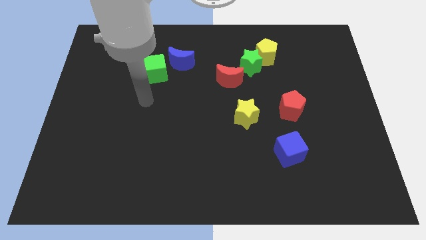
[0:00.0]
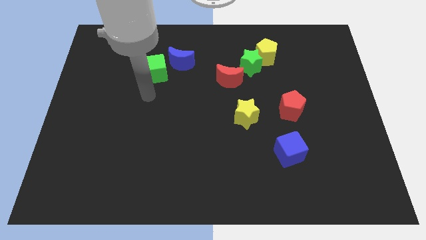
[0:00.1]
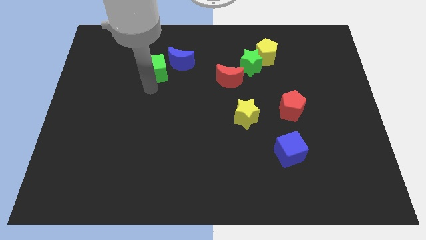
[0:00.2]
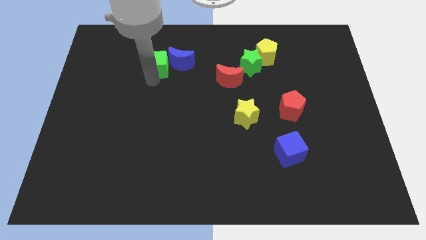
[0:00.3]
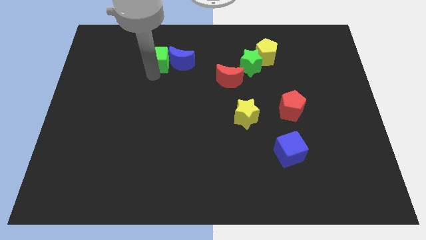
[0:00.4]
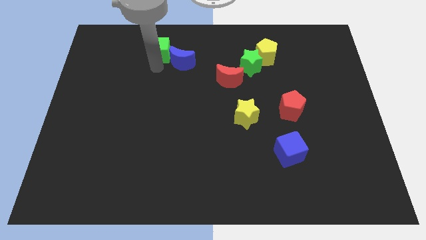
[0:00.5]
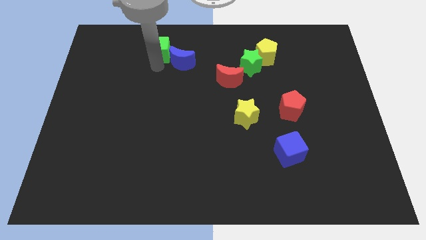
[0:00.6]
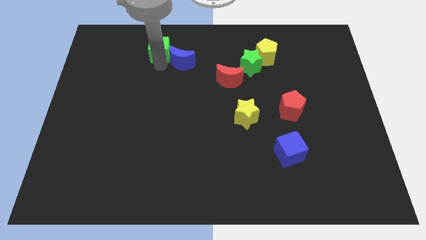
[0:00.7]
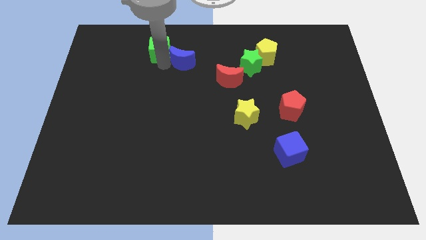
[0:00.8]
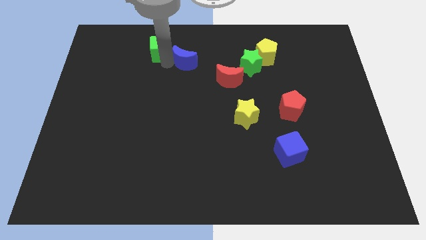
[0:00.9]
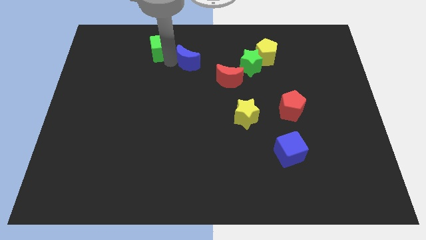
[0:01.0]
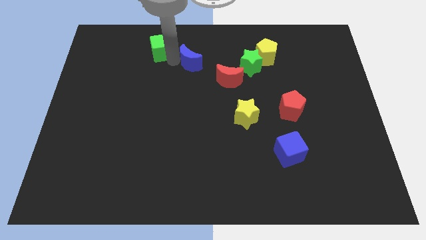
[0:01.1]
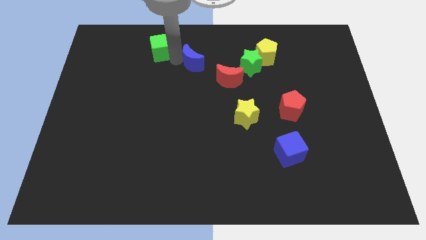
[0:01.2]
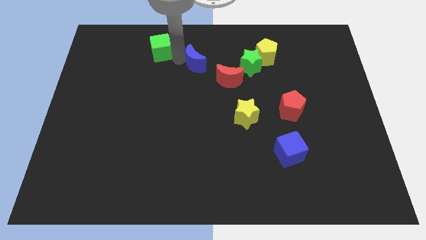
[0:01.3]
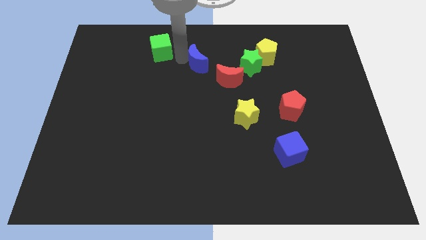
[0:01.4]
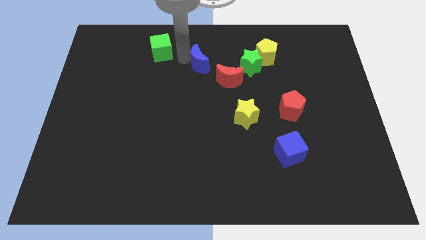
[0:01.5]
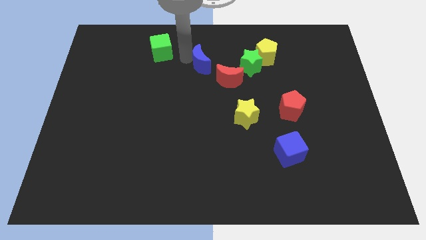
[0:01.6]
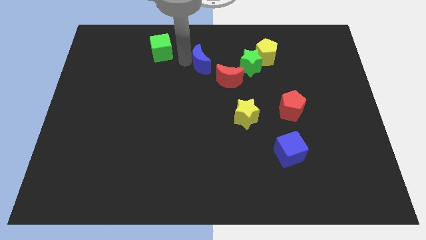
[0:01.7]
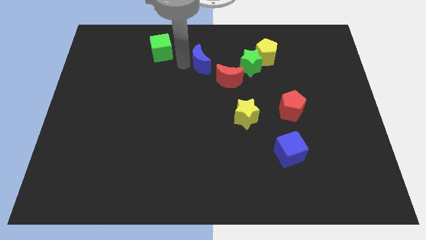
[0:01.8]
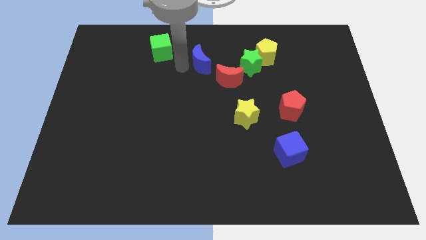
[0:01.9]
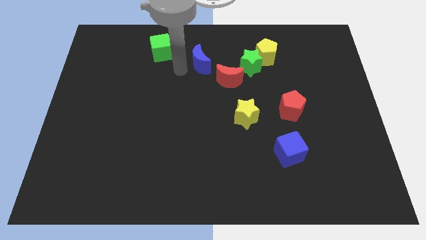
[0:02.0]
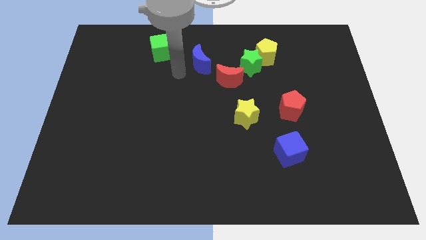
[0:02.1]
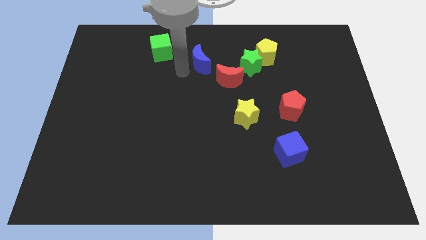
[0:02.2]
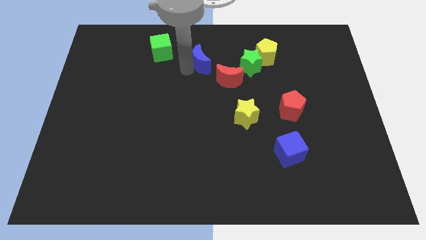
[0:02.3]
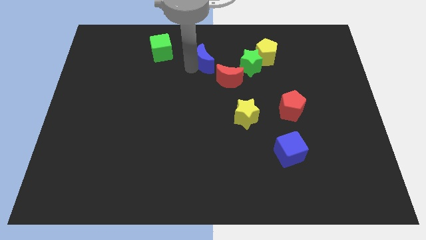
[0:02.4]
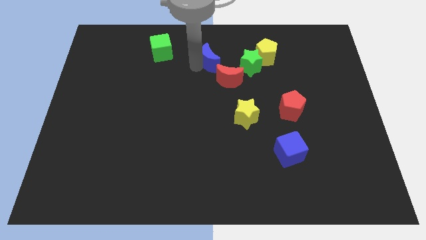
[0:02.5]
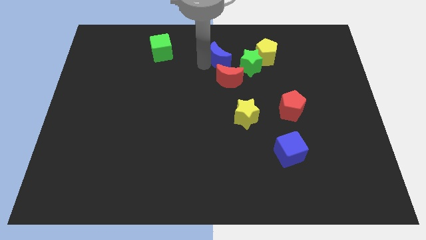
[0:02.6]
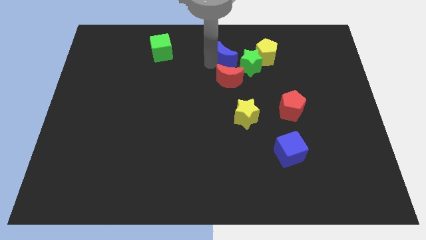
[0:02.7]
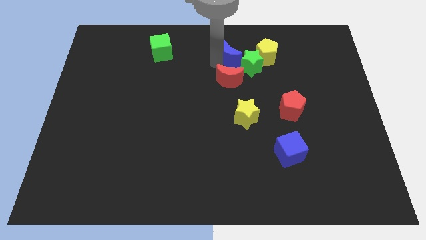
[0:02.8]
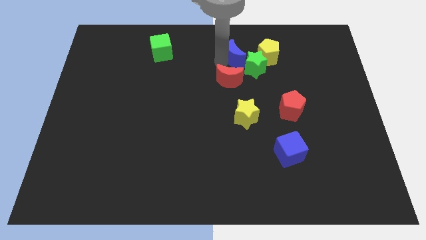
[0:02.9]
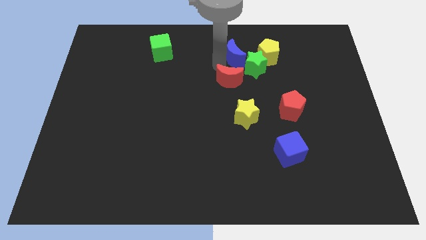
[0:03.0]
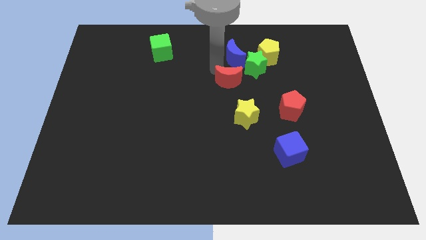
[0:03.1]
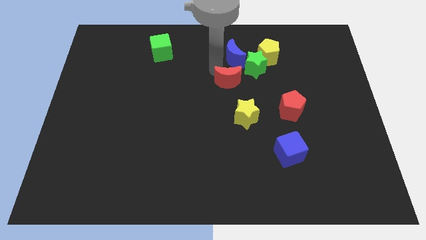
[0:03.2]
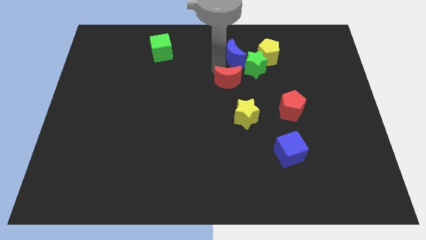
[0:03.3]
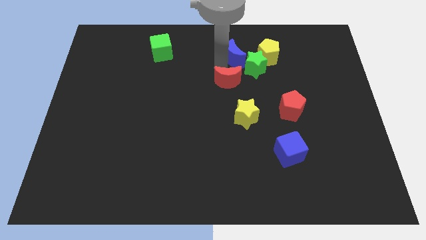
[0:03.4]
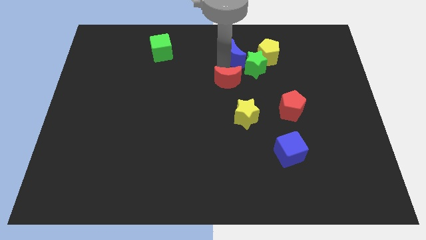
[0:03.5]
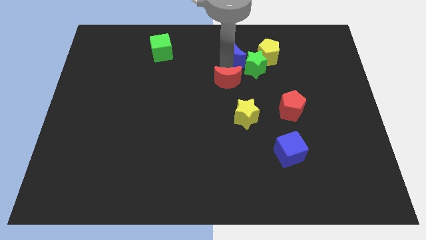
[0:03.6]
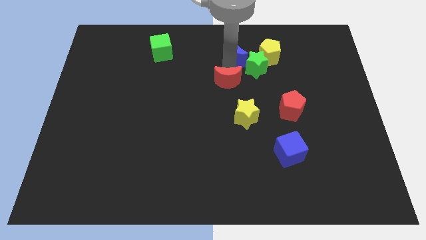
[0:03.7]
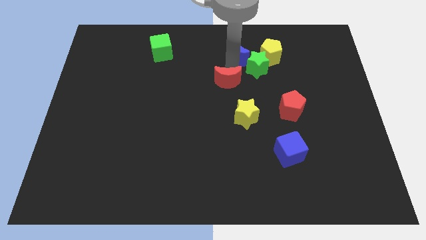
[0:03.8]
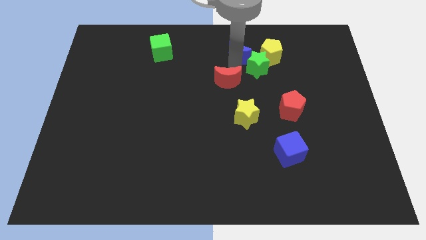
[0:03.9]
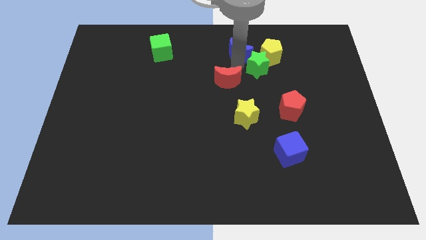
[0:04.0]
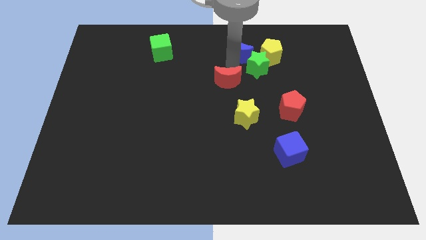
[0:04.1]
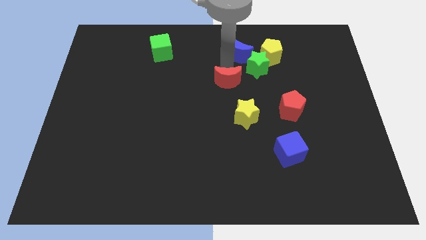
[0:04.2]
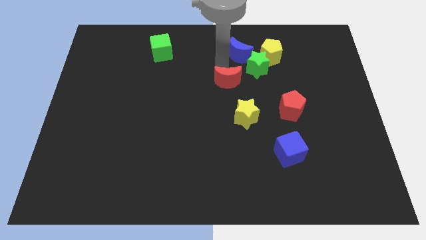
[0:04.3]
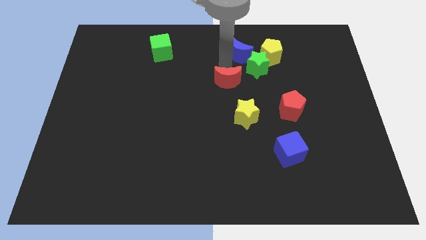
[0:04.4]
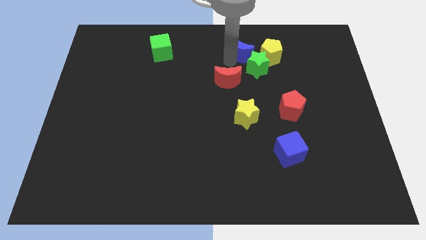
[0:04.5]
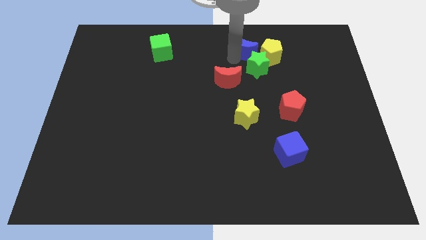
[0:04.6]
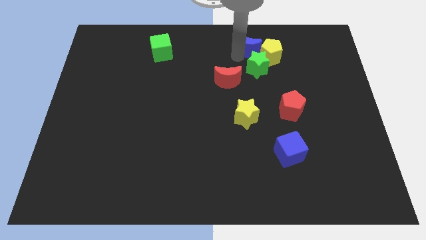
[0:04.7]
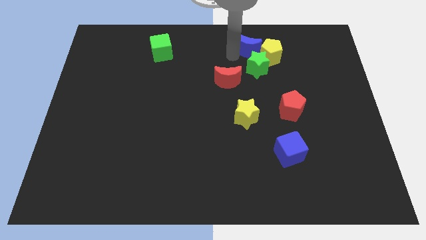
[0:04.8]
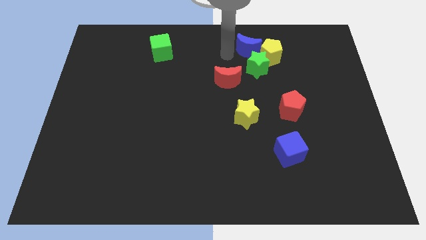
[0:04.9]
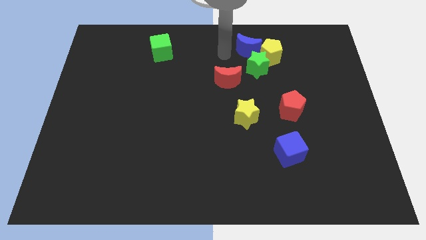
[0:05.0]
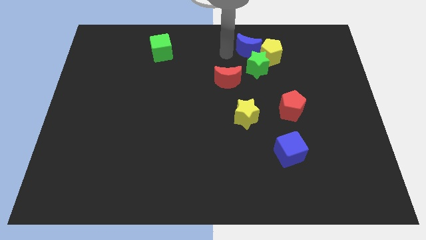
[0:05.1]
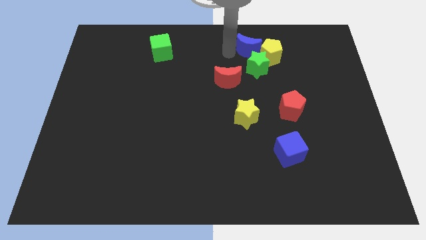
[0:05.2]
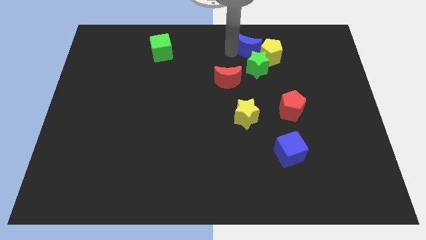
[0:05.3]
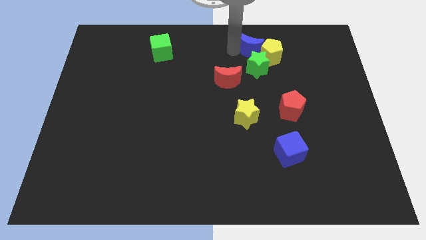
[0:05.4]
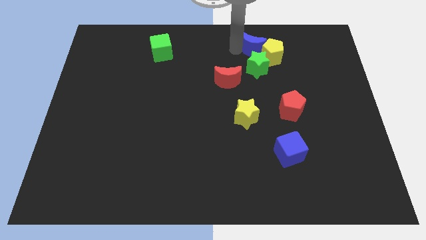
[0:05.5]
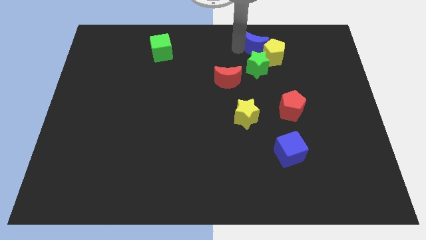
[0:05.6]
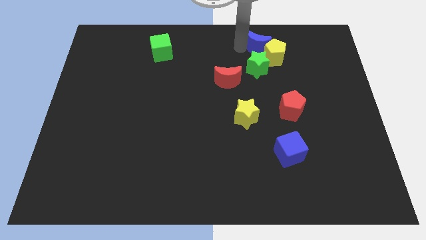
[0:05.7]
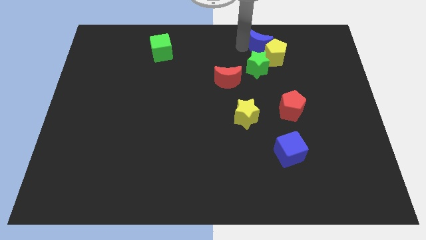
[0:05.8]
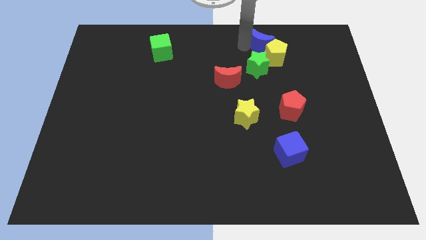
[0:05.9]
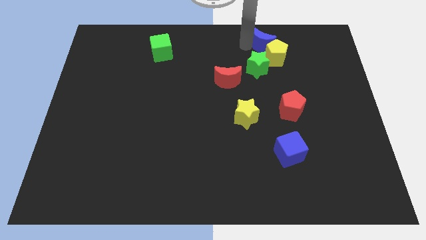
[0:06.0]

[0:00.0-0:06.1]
move the blue moon to the right

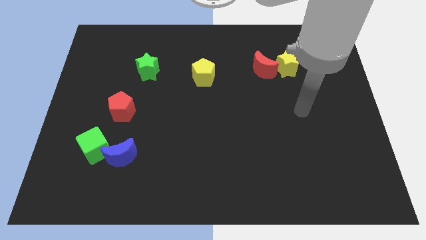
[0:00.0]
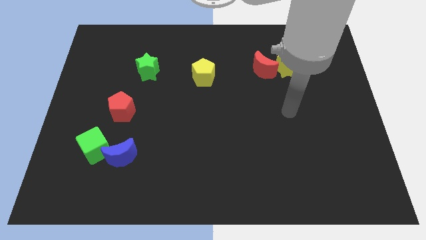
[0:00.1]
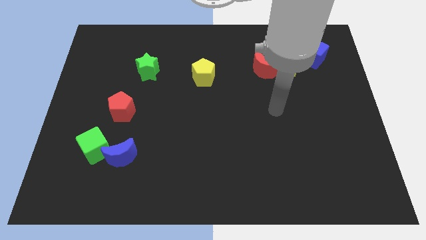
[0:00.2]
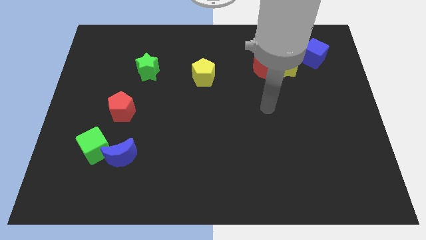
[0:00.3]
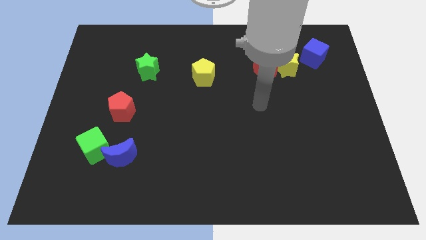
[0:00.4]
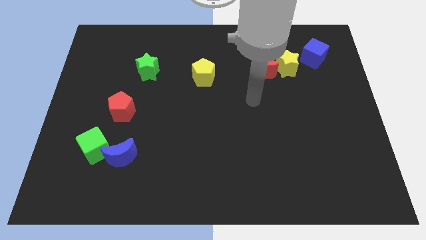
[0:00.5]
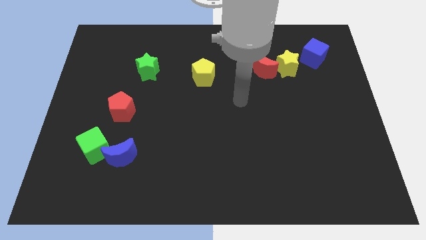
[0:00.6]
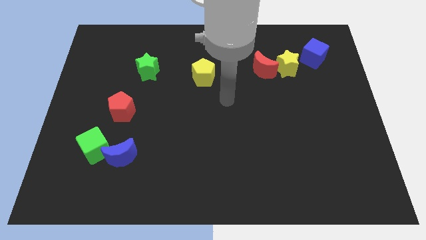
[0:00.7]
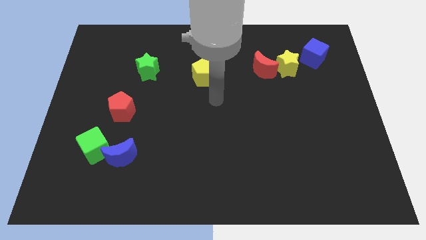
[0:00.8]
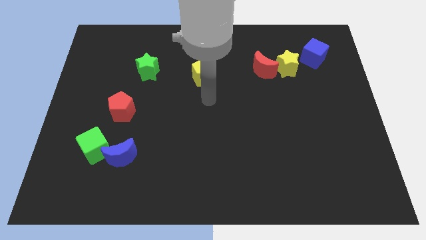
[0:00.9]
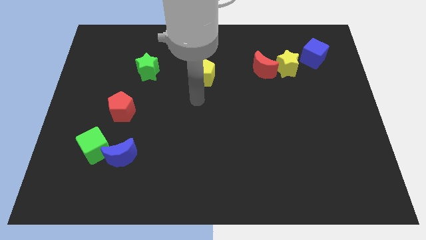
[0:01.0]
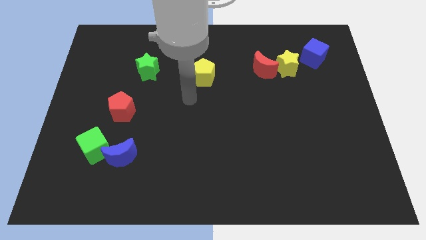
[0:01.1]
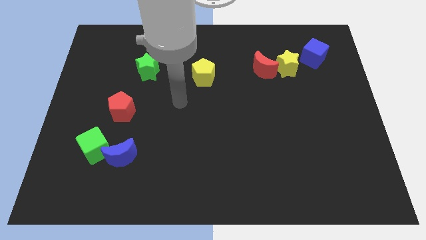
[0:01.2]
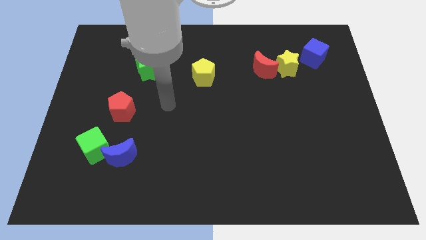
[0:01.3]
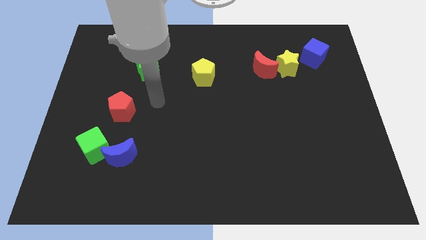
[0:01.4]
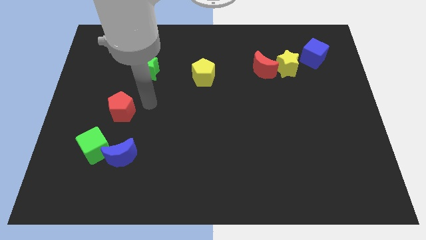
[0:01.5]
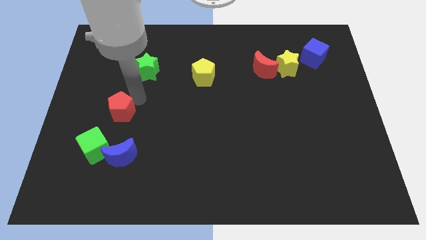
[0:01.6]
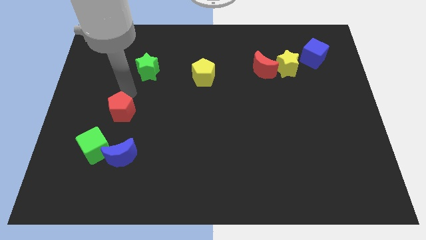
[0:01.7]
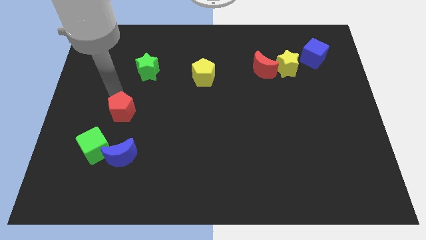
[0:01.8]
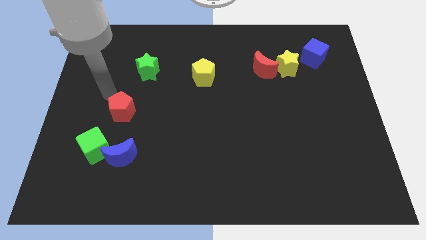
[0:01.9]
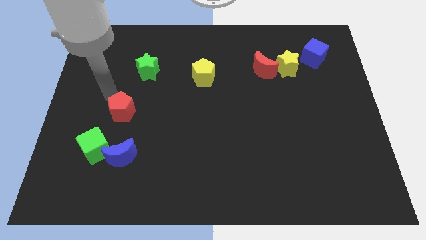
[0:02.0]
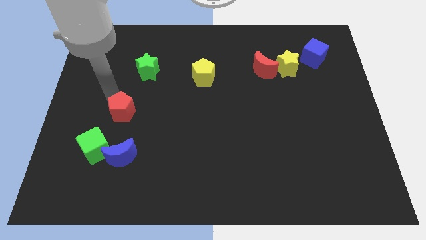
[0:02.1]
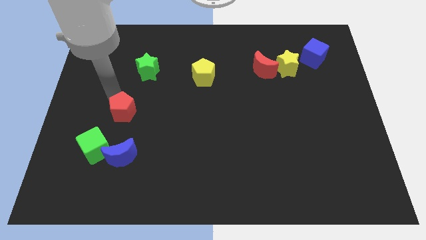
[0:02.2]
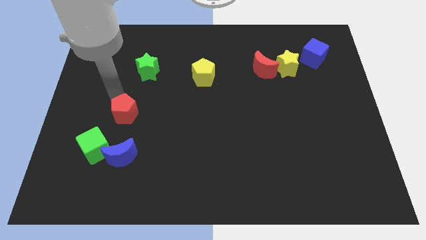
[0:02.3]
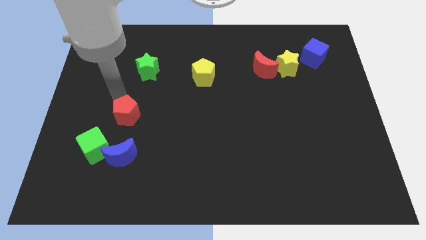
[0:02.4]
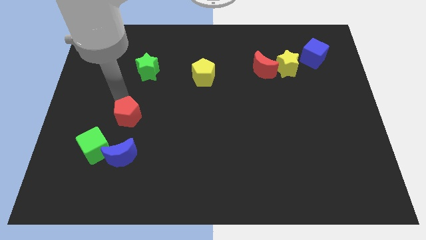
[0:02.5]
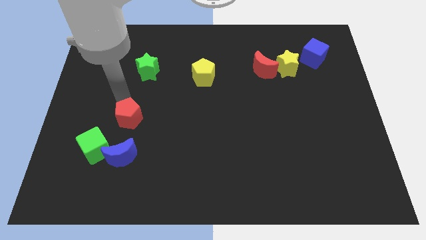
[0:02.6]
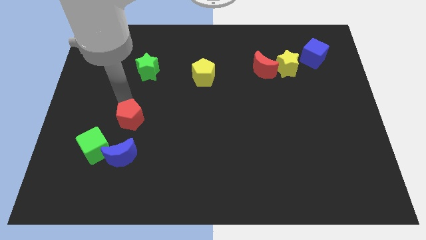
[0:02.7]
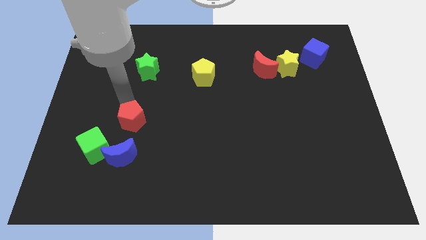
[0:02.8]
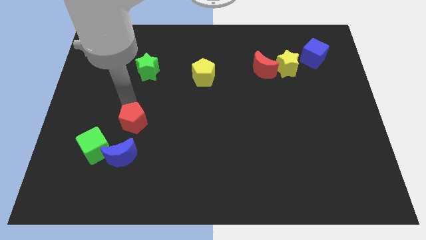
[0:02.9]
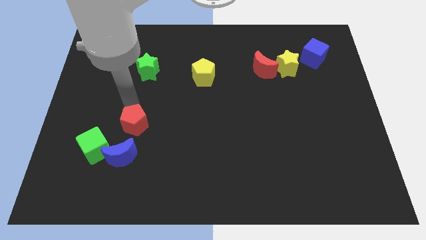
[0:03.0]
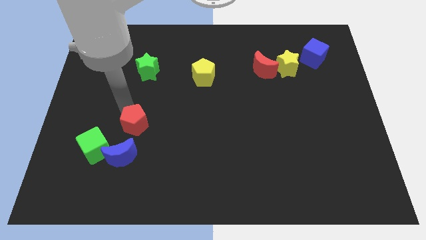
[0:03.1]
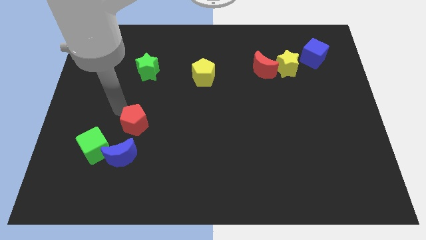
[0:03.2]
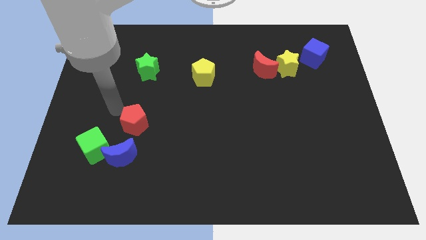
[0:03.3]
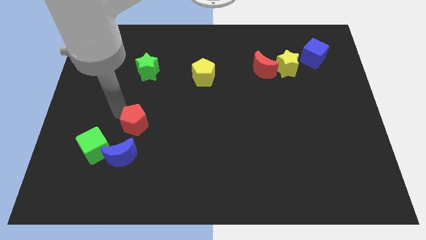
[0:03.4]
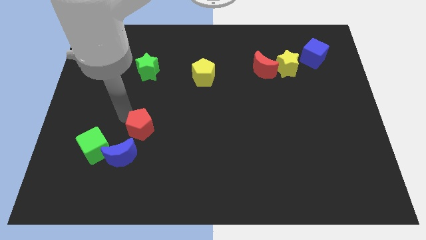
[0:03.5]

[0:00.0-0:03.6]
push the red pentagon down and right a little
